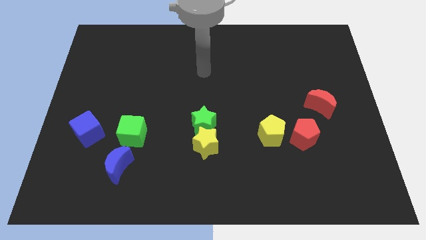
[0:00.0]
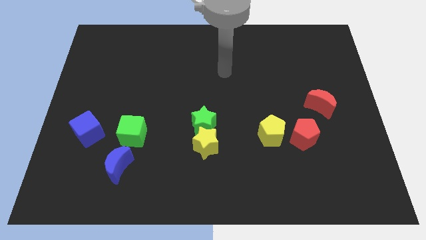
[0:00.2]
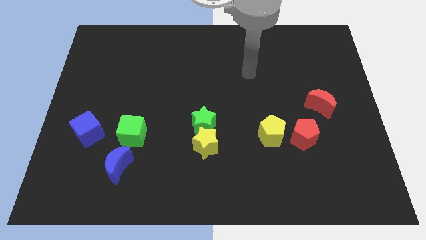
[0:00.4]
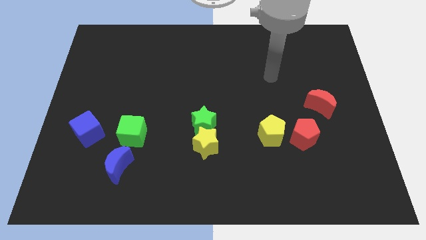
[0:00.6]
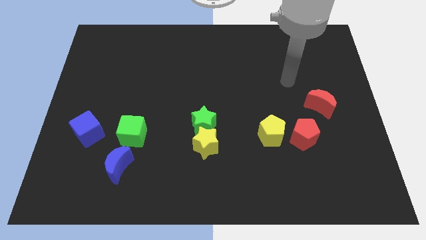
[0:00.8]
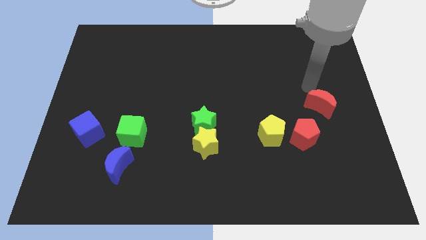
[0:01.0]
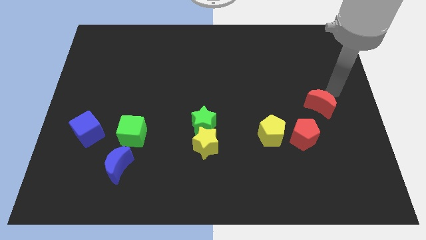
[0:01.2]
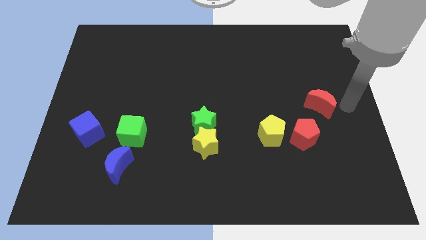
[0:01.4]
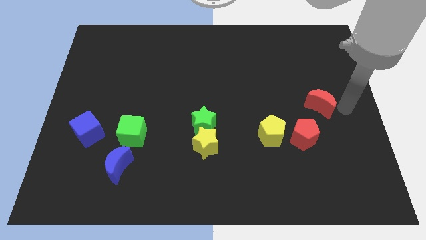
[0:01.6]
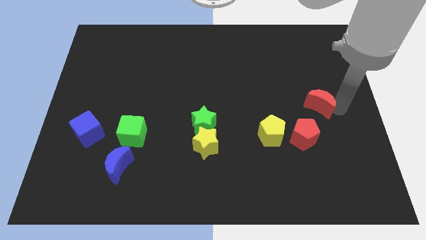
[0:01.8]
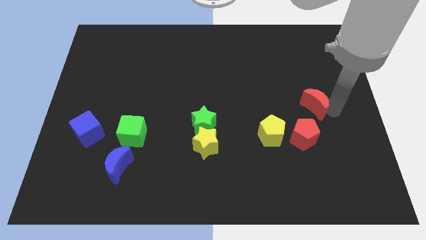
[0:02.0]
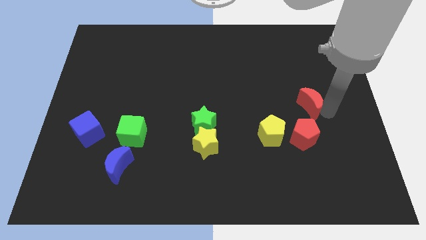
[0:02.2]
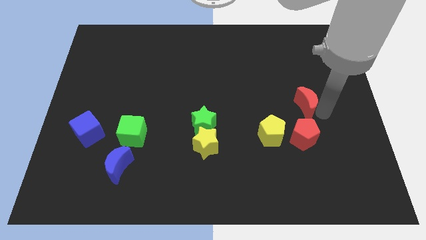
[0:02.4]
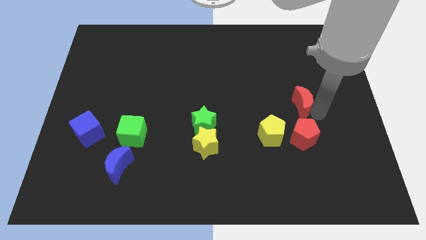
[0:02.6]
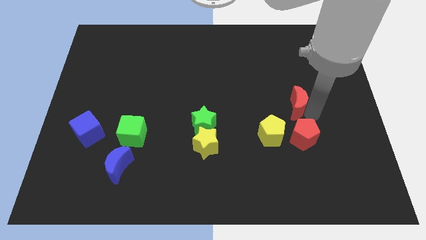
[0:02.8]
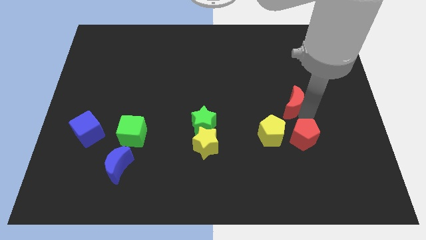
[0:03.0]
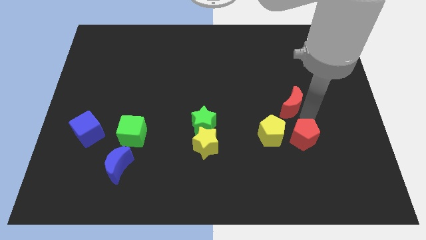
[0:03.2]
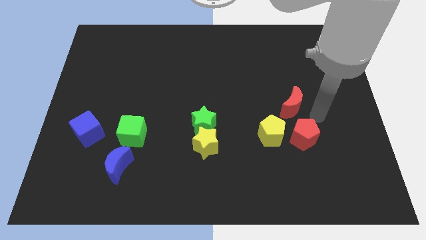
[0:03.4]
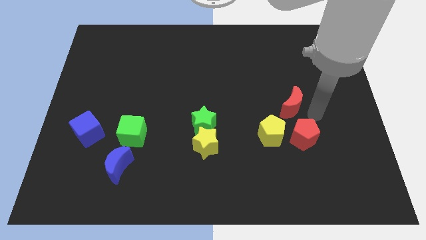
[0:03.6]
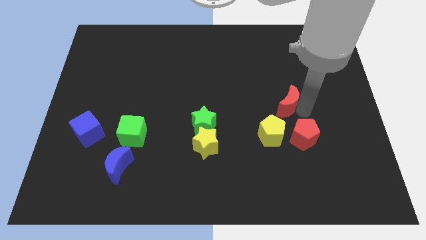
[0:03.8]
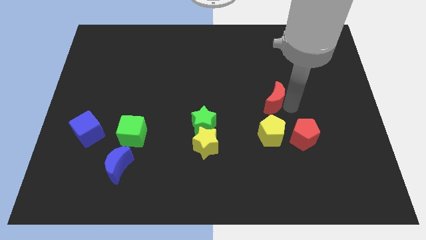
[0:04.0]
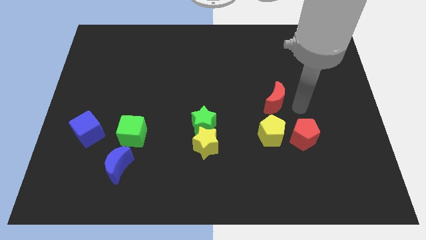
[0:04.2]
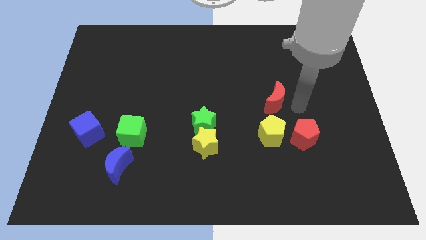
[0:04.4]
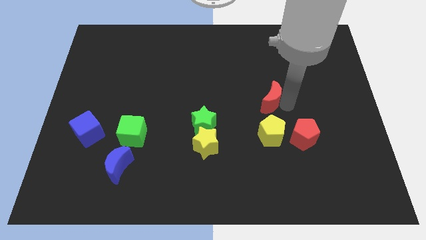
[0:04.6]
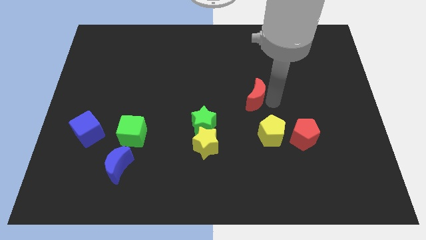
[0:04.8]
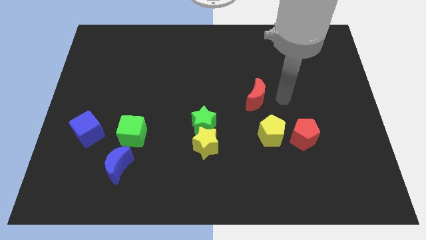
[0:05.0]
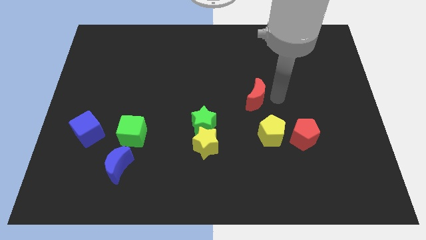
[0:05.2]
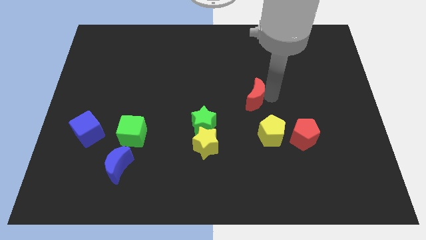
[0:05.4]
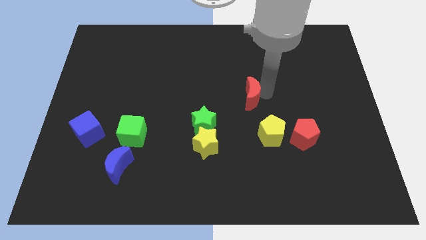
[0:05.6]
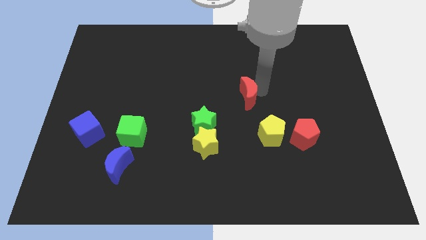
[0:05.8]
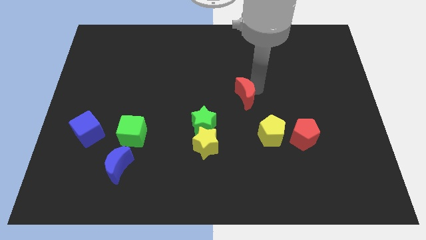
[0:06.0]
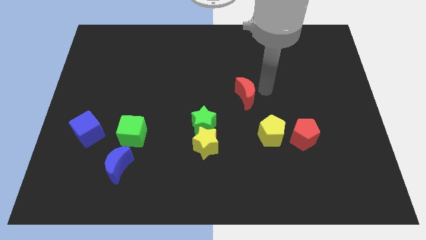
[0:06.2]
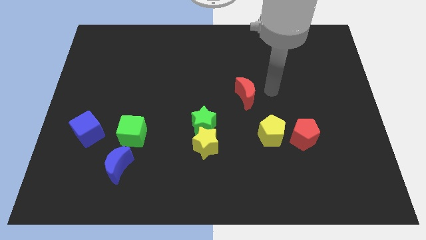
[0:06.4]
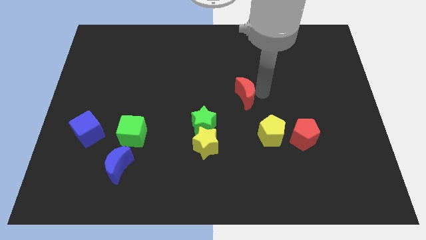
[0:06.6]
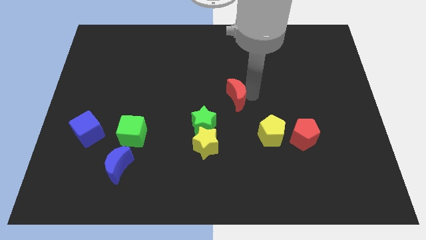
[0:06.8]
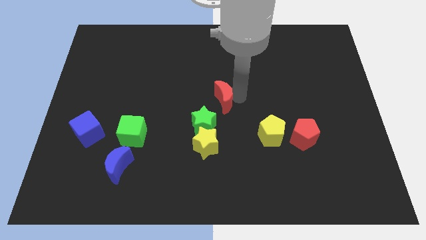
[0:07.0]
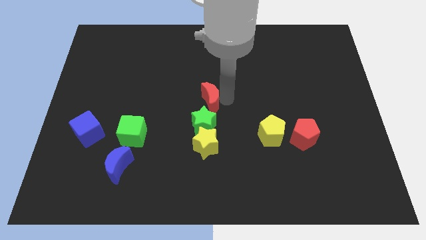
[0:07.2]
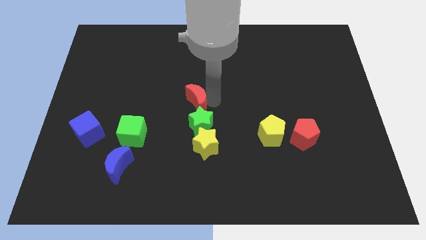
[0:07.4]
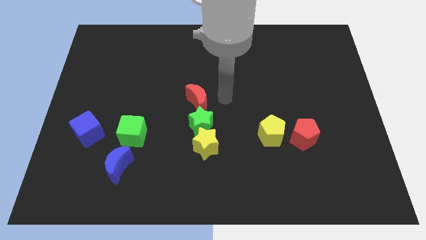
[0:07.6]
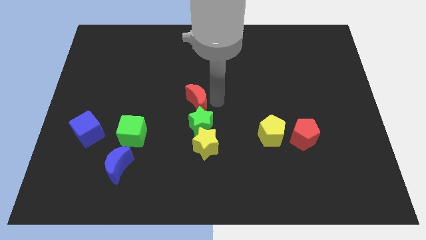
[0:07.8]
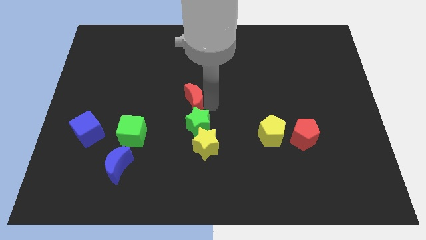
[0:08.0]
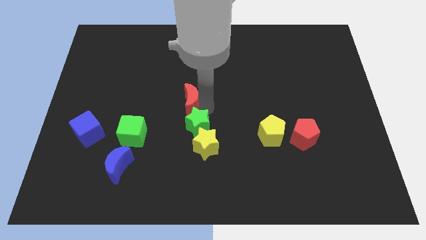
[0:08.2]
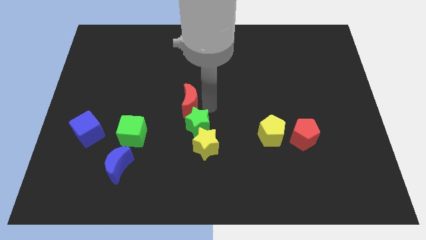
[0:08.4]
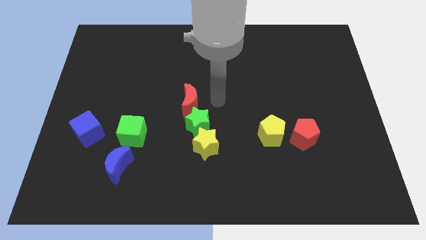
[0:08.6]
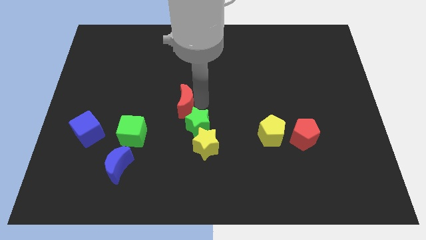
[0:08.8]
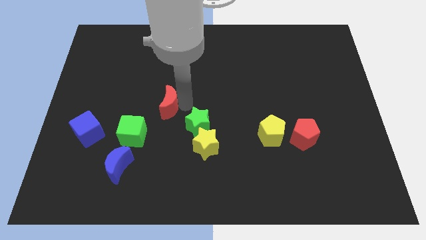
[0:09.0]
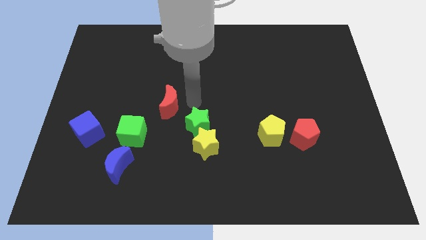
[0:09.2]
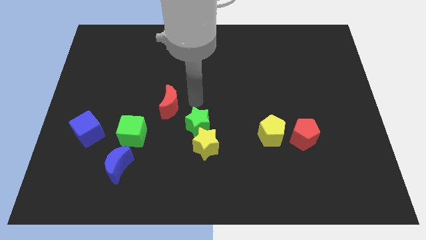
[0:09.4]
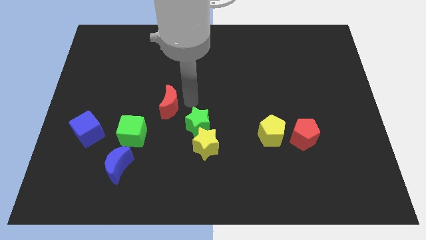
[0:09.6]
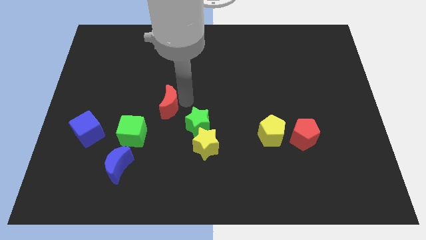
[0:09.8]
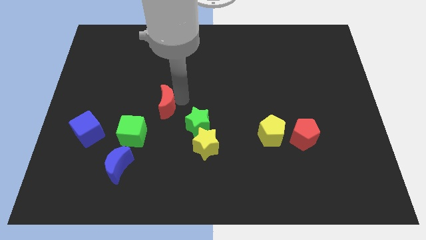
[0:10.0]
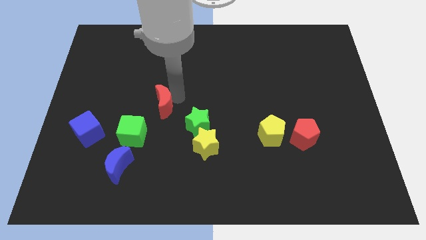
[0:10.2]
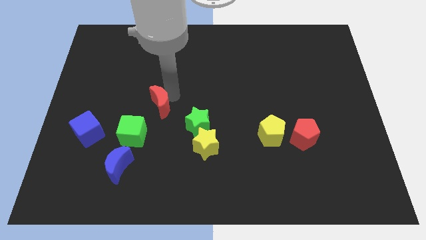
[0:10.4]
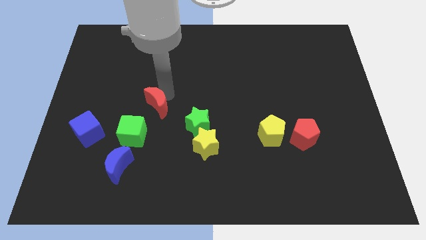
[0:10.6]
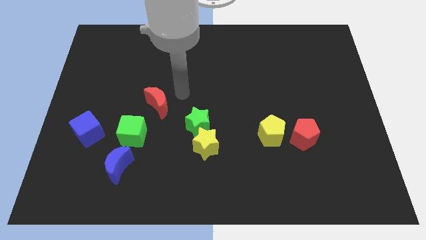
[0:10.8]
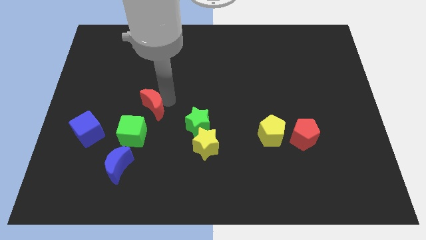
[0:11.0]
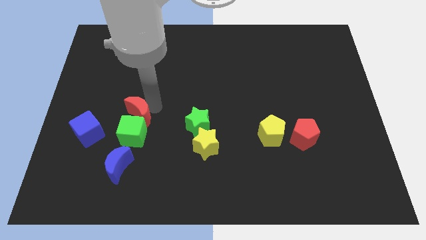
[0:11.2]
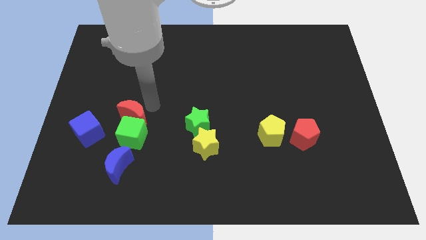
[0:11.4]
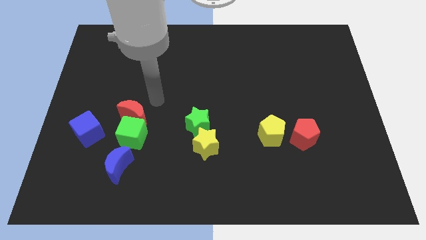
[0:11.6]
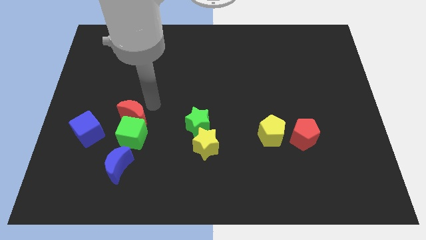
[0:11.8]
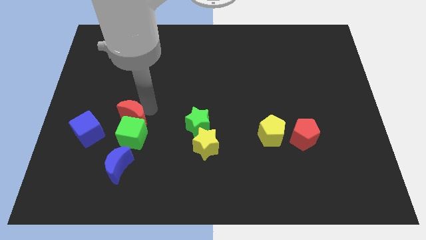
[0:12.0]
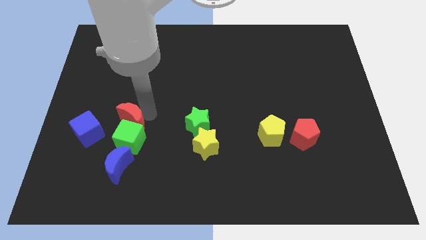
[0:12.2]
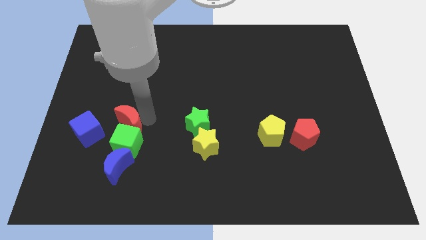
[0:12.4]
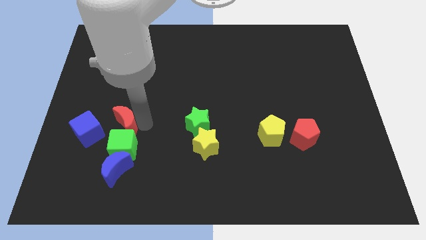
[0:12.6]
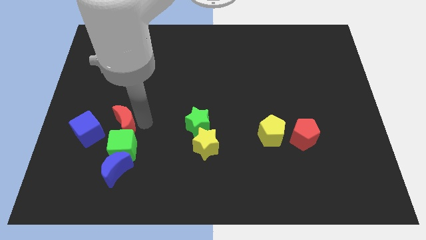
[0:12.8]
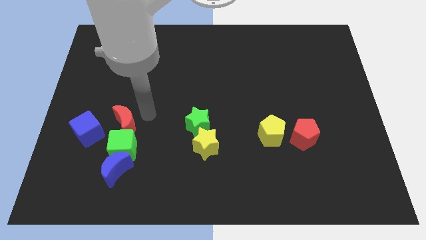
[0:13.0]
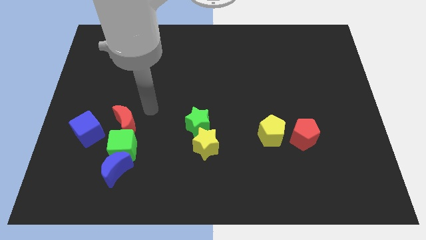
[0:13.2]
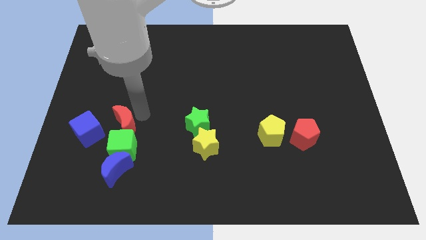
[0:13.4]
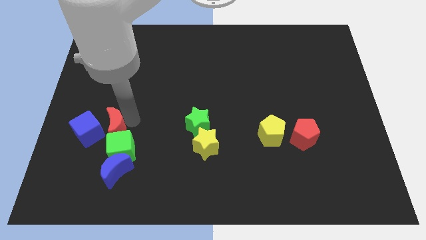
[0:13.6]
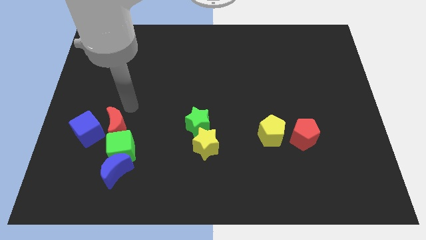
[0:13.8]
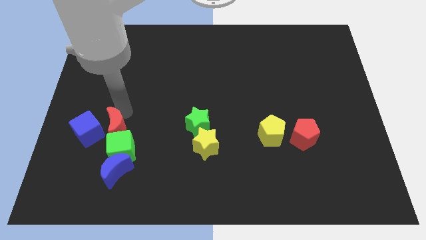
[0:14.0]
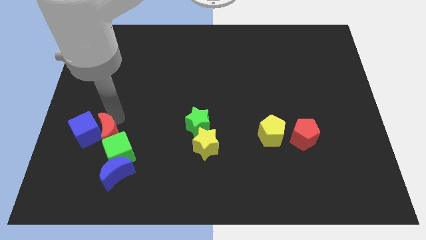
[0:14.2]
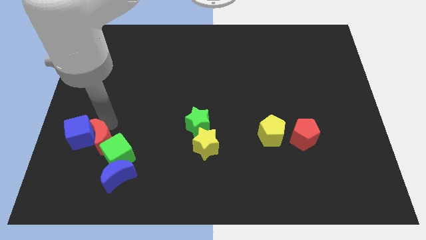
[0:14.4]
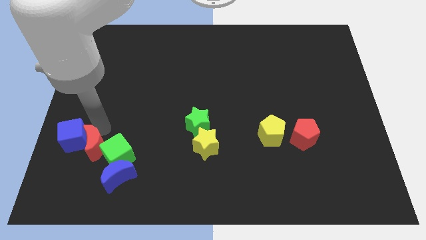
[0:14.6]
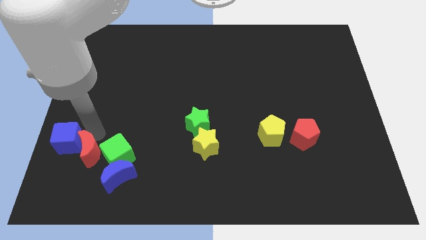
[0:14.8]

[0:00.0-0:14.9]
slide the red moon to the bottom left of the green cube
